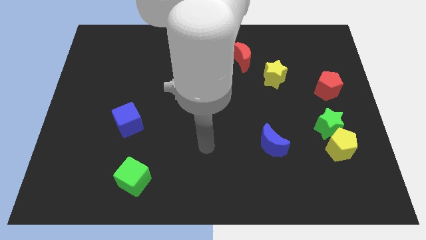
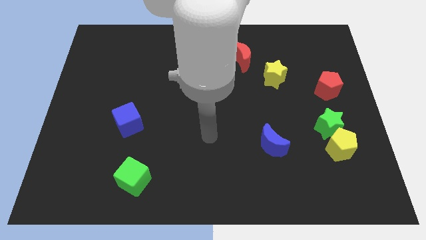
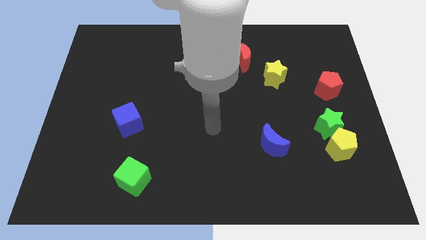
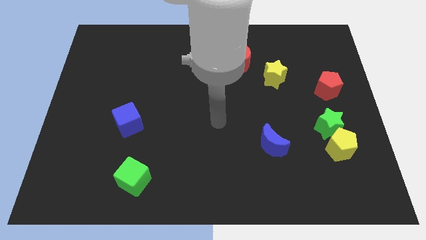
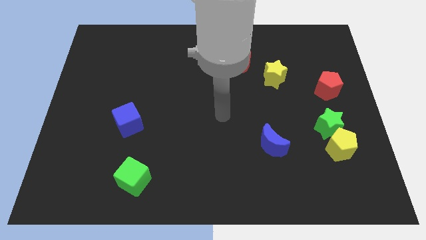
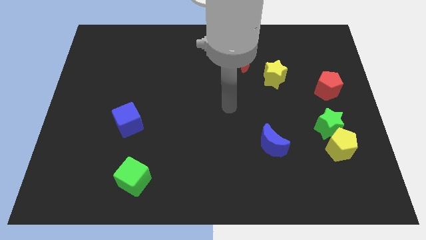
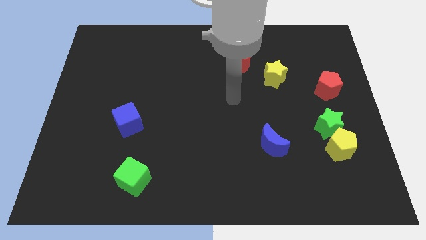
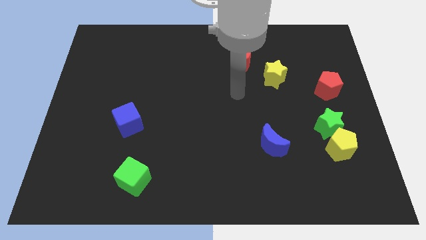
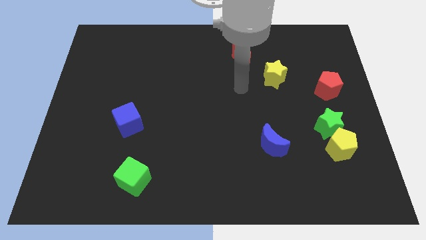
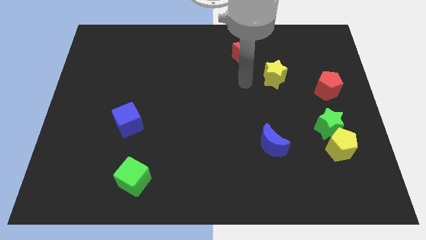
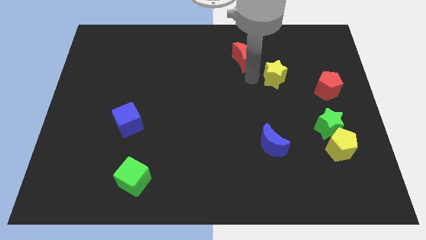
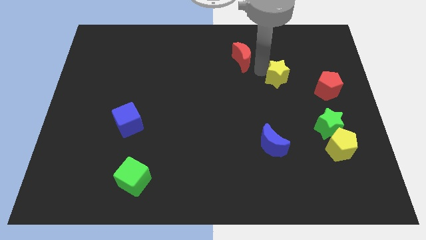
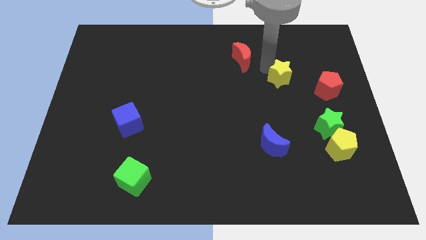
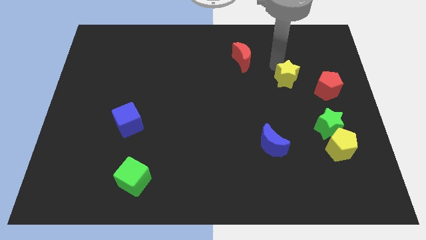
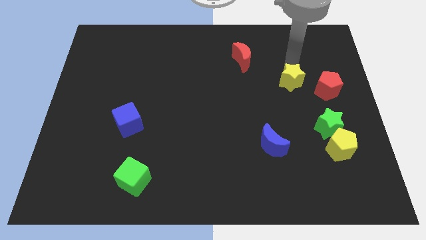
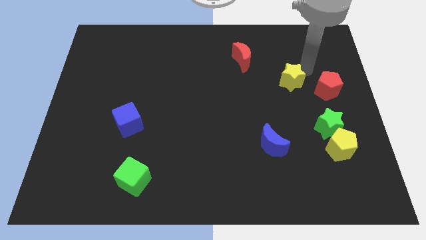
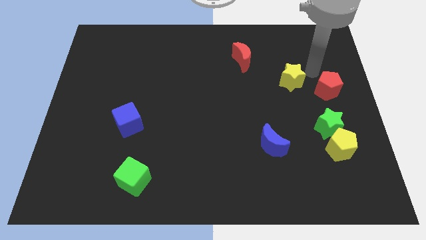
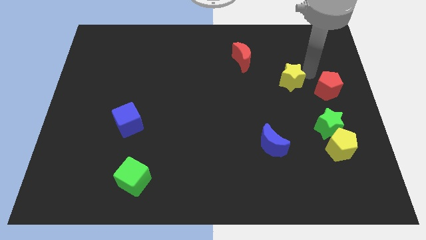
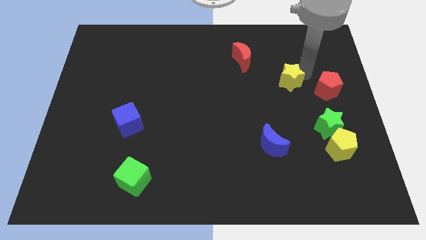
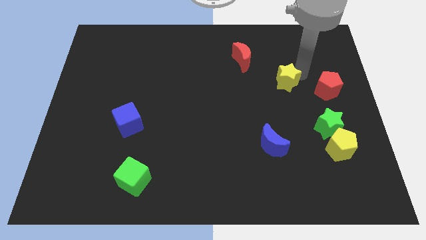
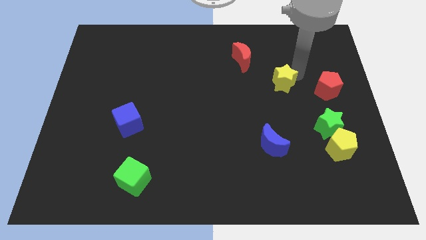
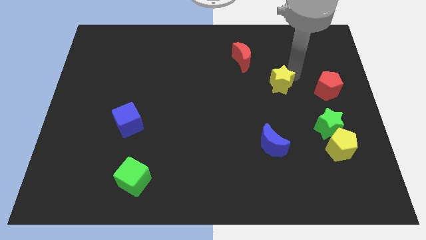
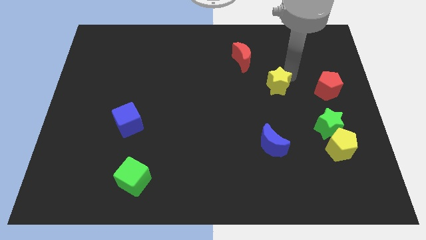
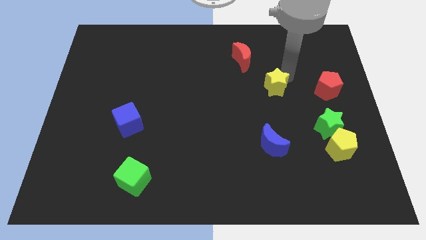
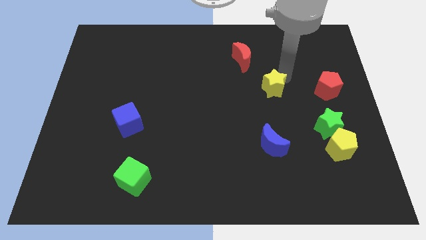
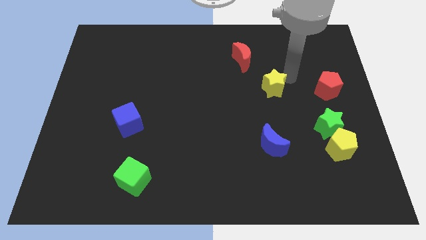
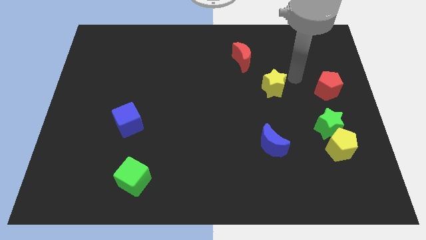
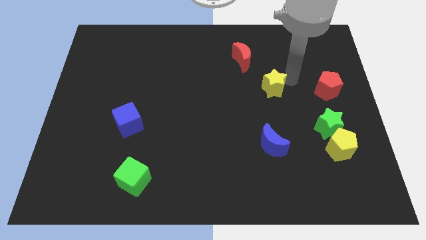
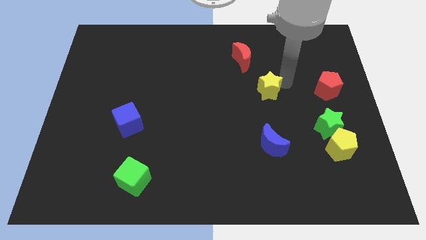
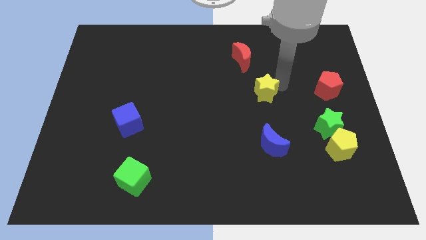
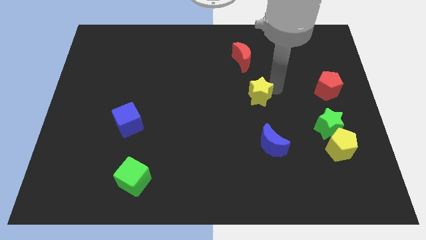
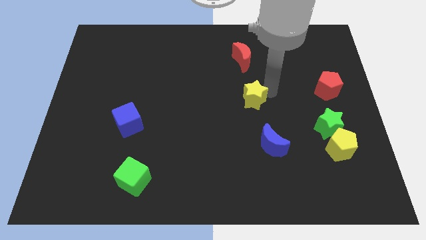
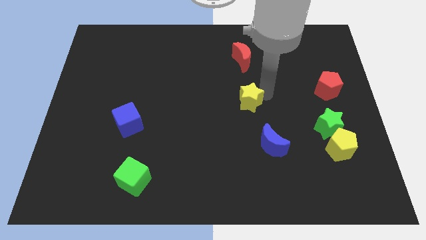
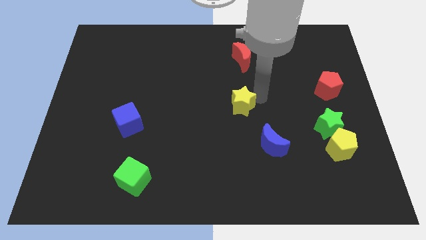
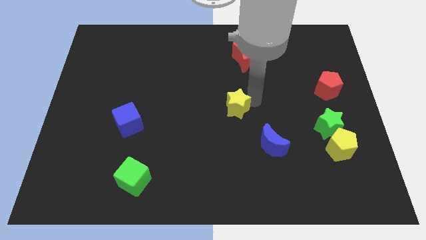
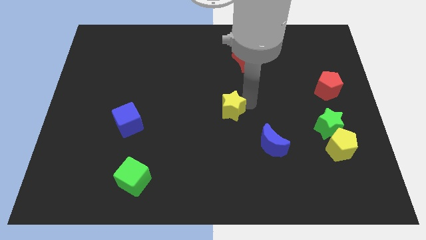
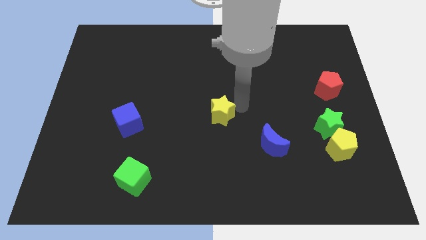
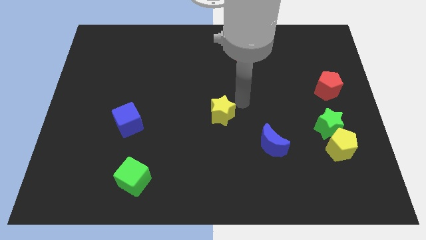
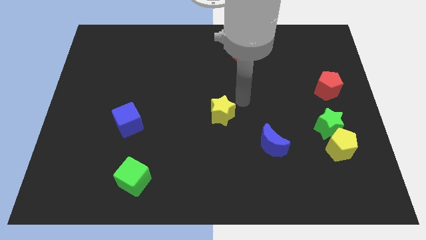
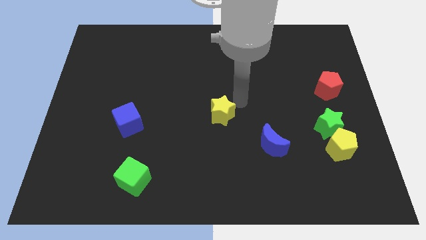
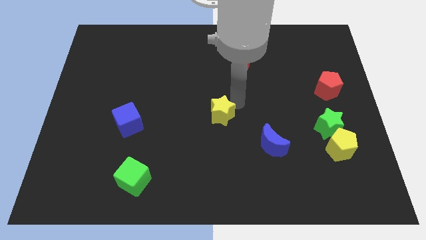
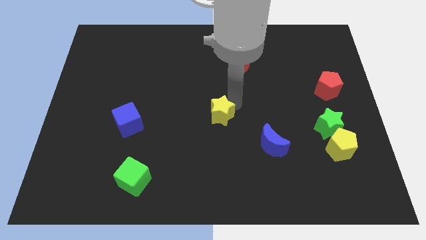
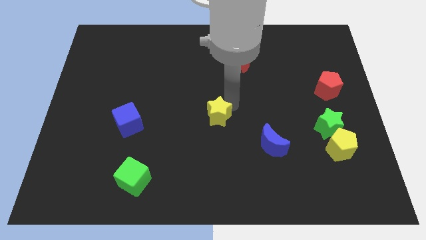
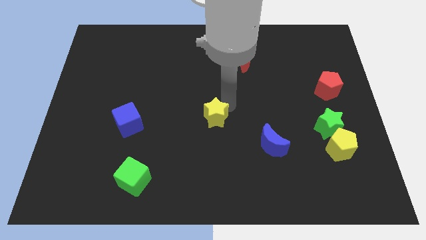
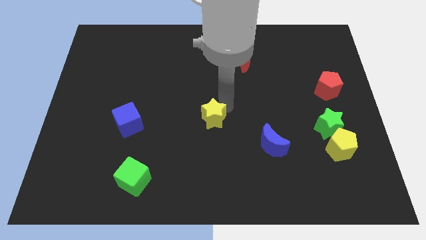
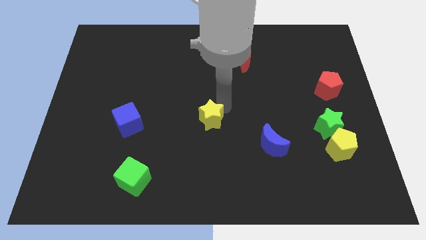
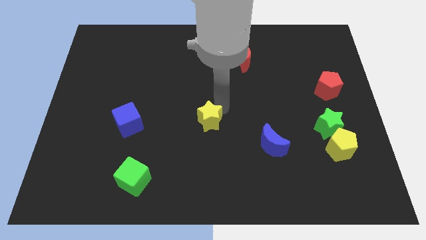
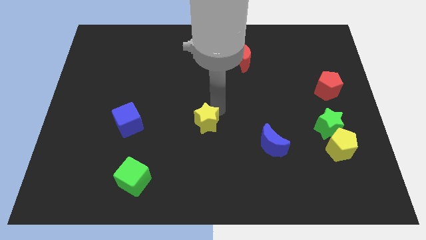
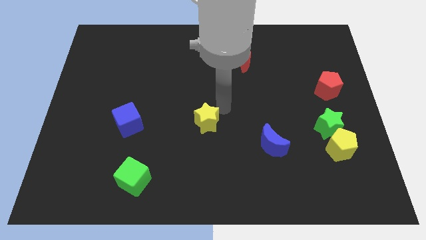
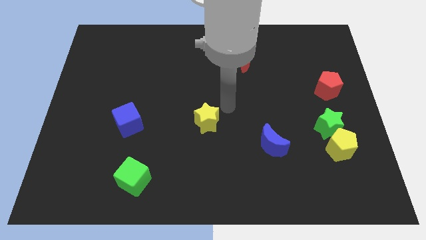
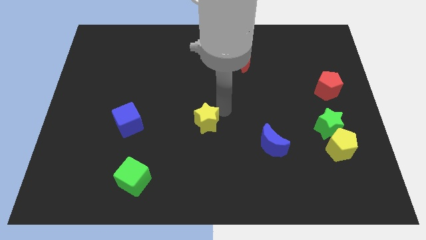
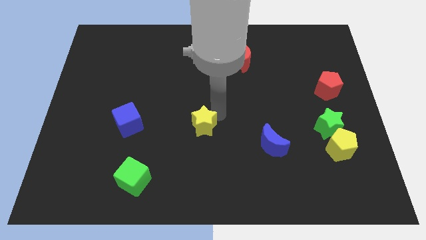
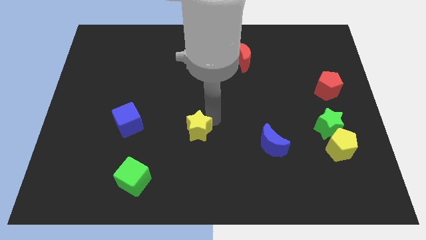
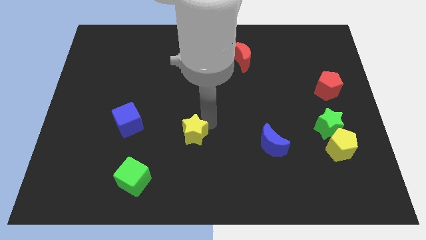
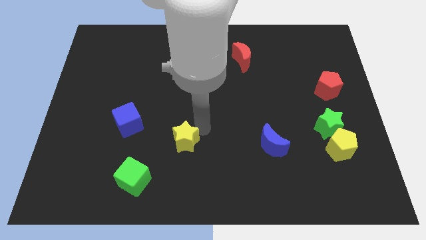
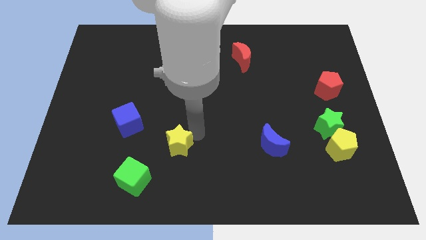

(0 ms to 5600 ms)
push the yellow star to the top right side of the green cube

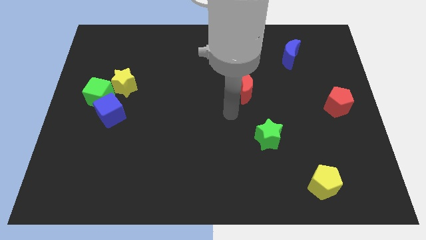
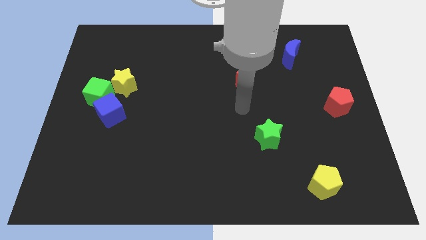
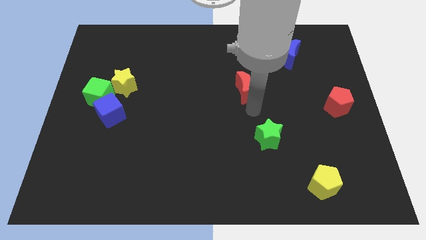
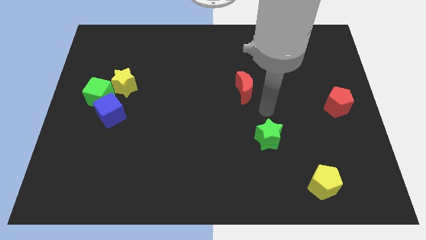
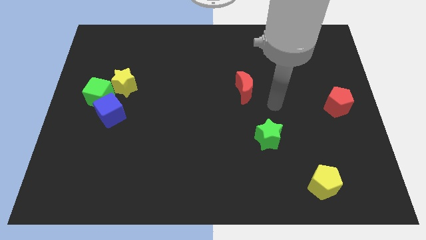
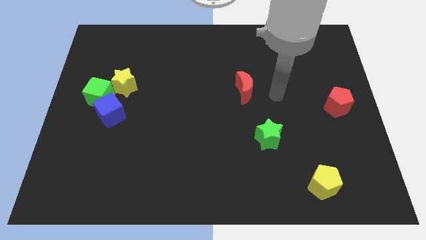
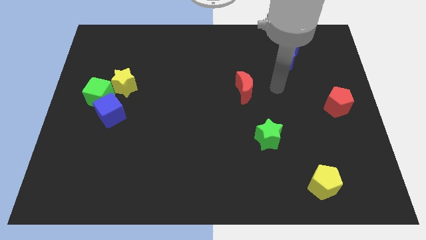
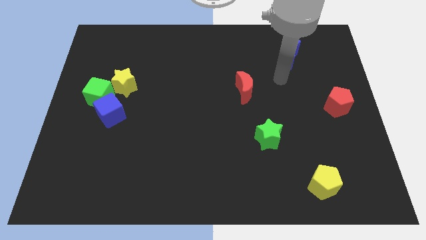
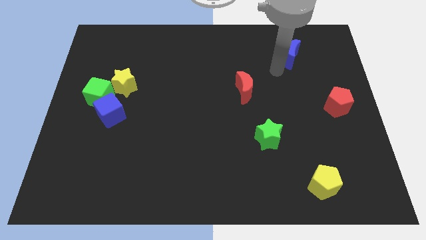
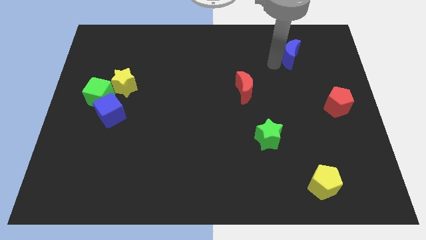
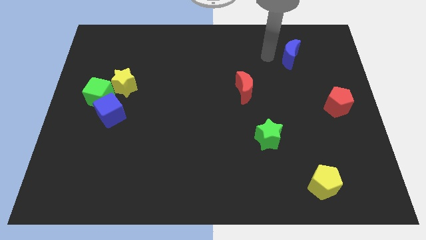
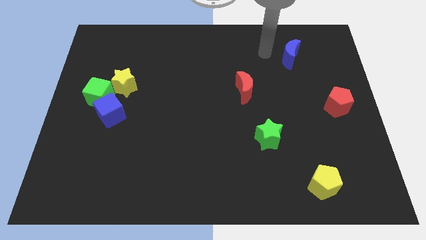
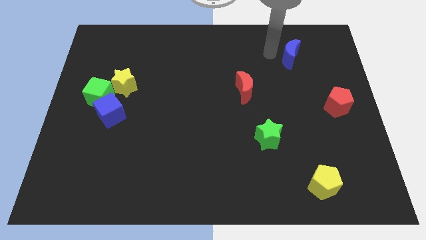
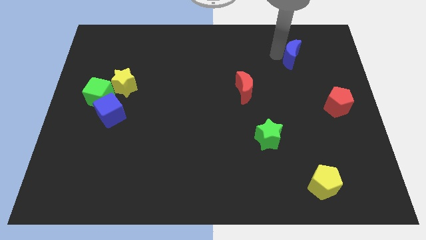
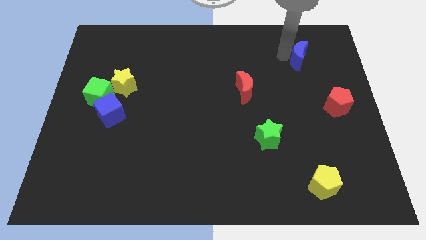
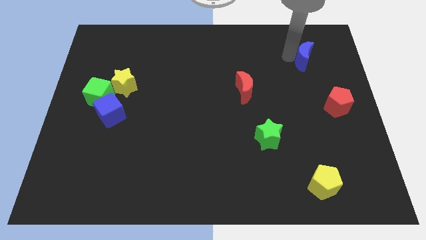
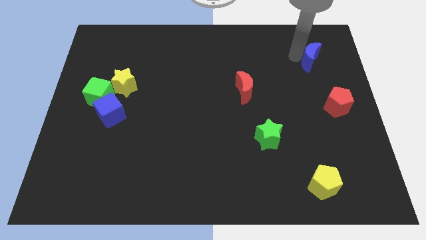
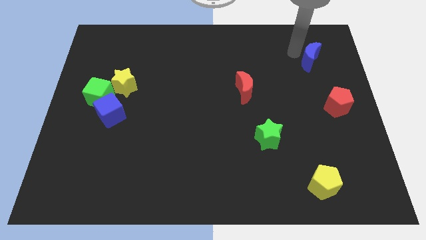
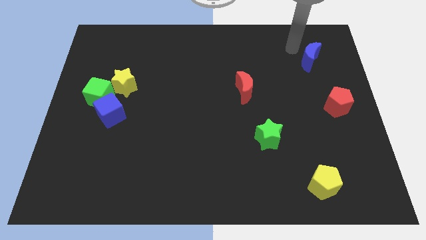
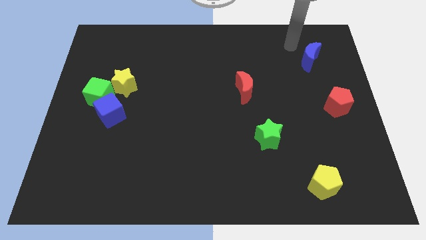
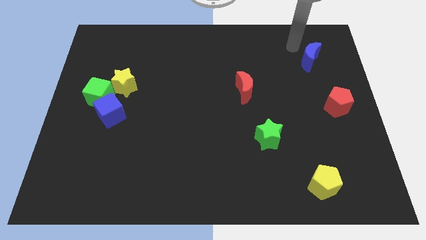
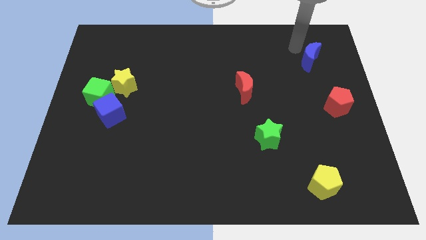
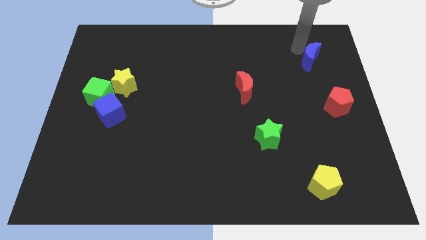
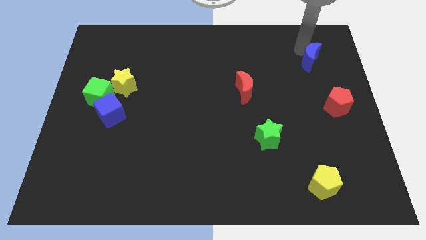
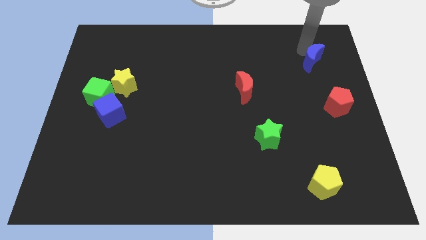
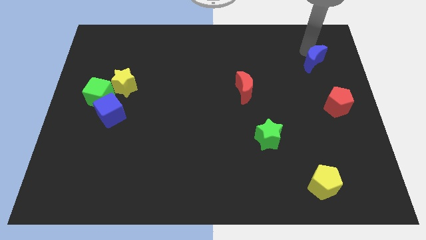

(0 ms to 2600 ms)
move the blue moon to the top side of the red pentagon
